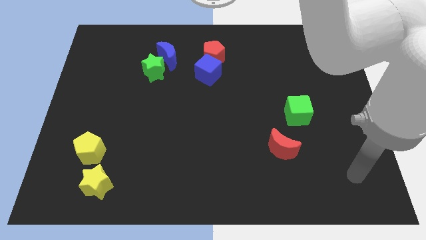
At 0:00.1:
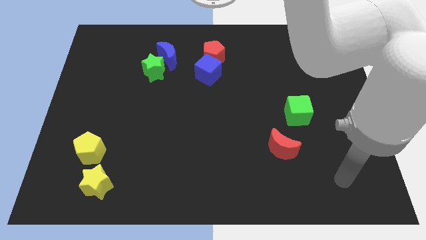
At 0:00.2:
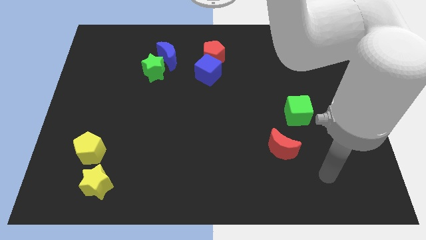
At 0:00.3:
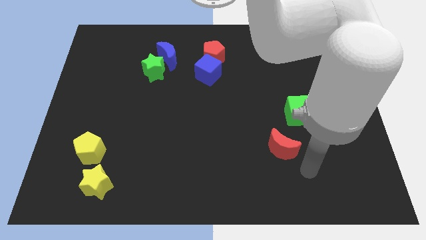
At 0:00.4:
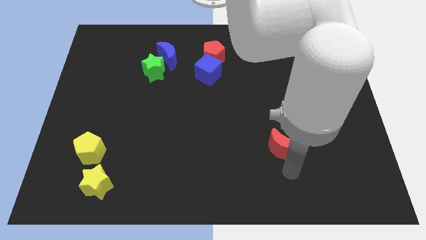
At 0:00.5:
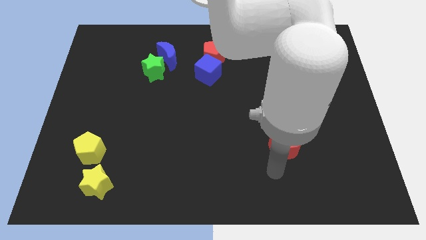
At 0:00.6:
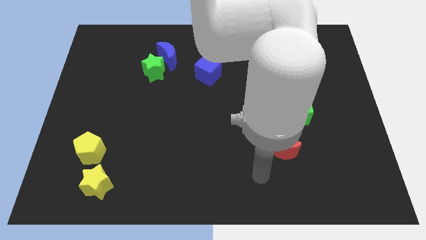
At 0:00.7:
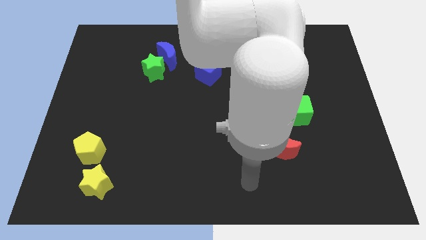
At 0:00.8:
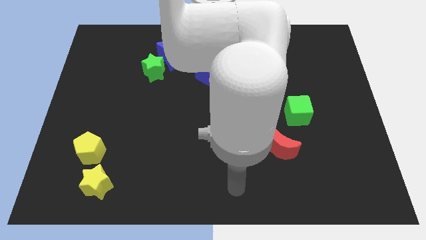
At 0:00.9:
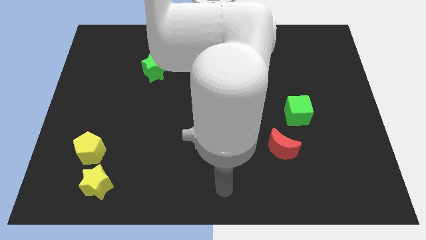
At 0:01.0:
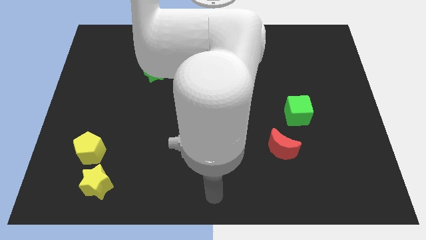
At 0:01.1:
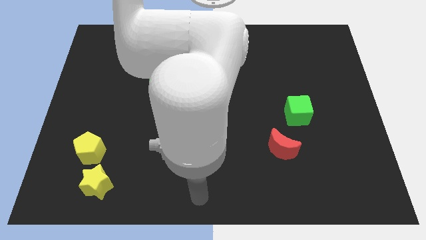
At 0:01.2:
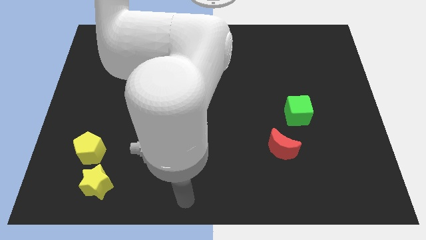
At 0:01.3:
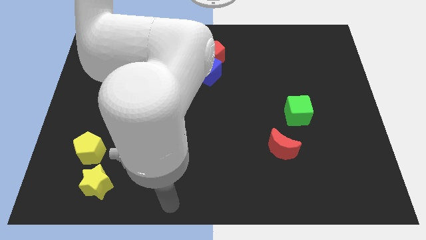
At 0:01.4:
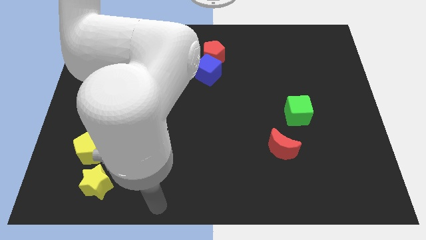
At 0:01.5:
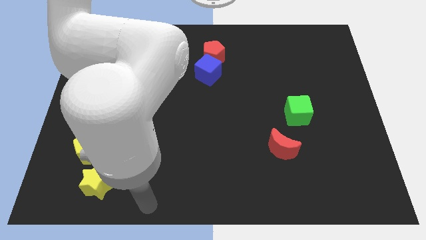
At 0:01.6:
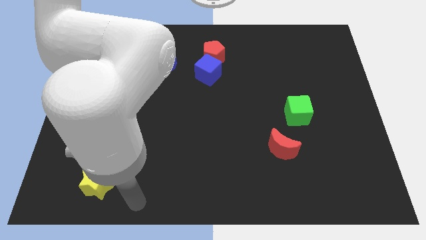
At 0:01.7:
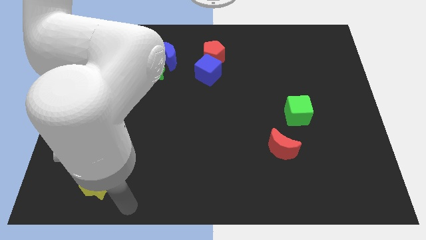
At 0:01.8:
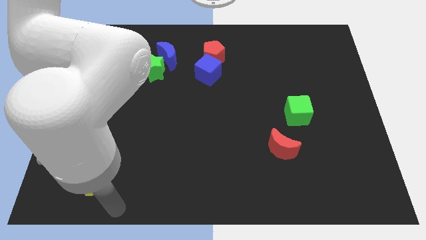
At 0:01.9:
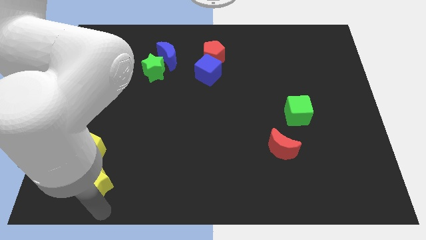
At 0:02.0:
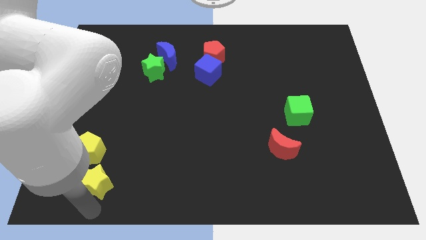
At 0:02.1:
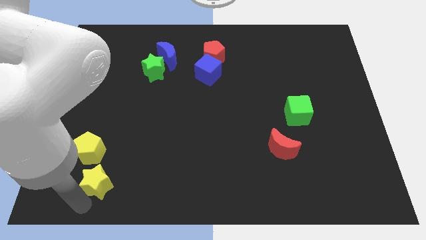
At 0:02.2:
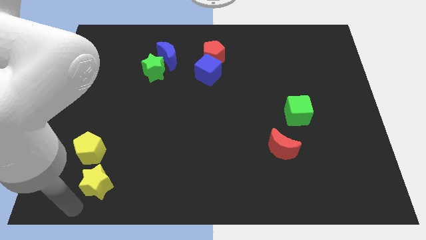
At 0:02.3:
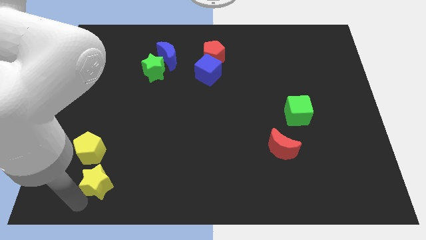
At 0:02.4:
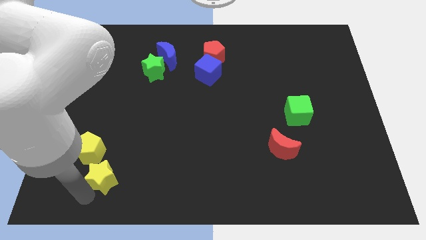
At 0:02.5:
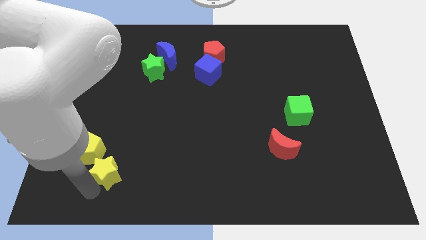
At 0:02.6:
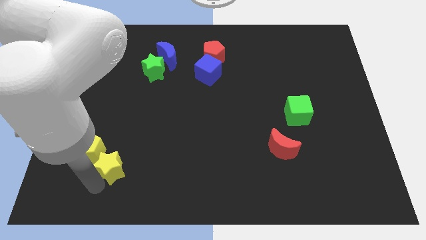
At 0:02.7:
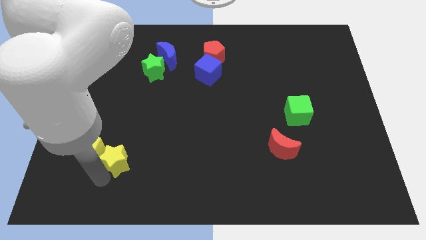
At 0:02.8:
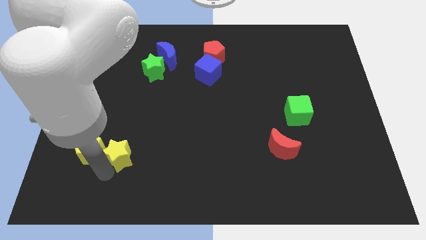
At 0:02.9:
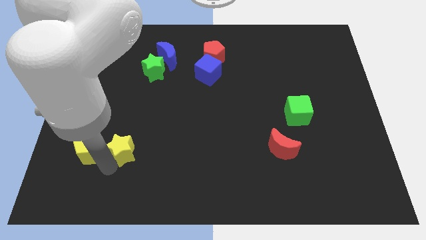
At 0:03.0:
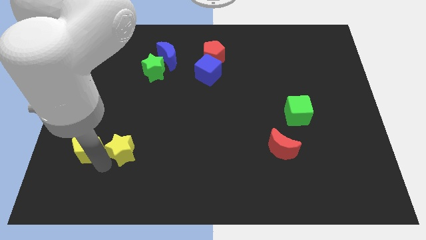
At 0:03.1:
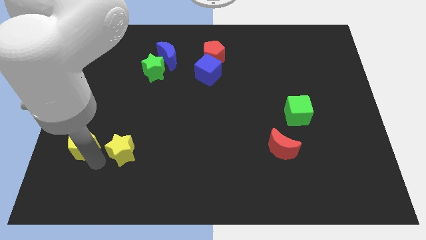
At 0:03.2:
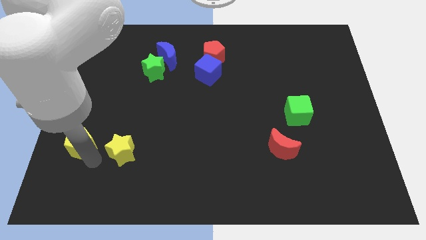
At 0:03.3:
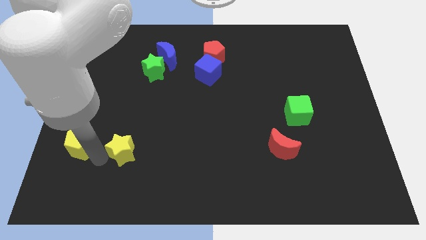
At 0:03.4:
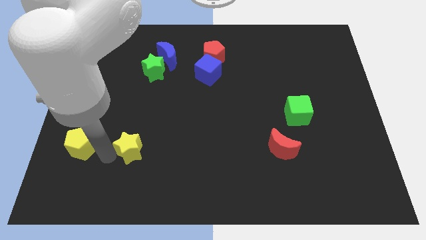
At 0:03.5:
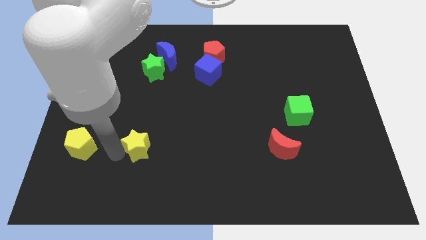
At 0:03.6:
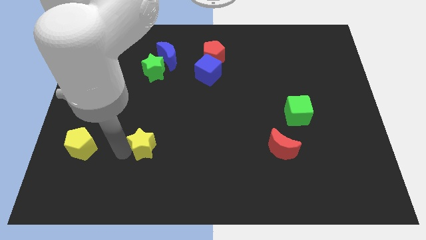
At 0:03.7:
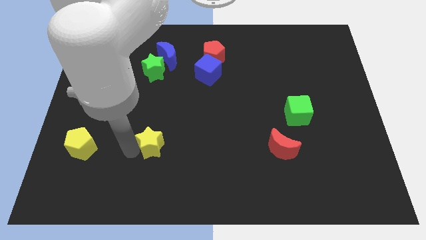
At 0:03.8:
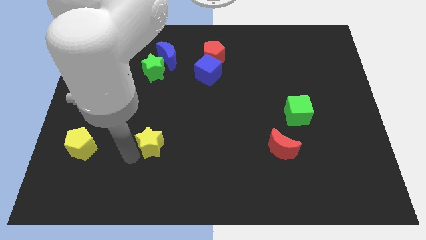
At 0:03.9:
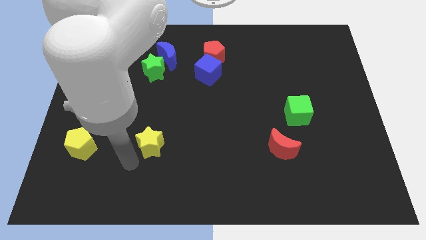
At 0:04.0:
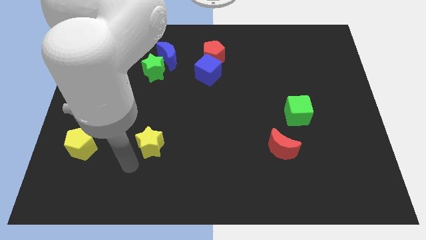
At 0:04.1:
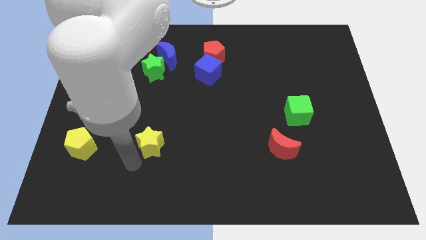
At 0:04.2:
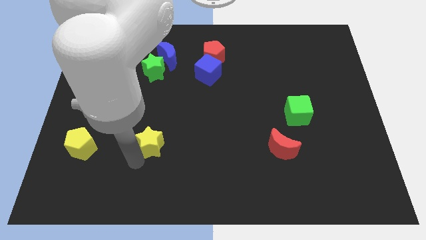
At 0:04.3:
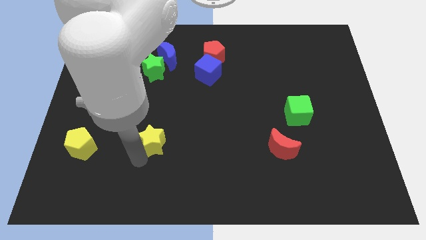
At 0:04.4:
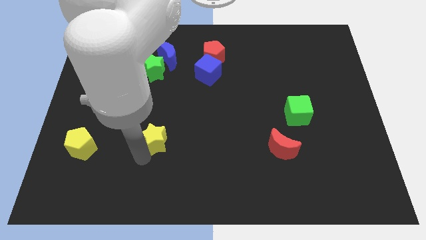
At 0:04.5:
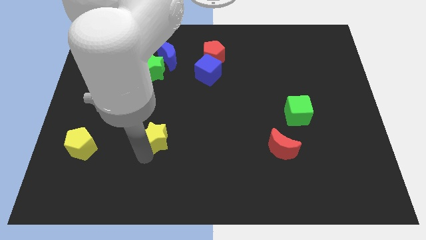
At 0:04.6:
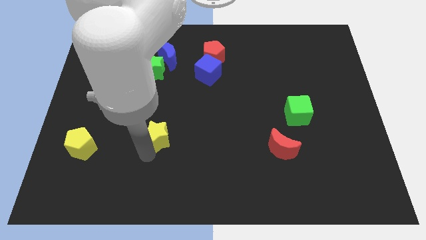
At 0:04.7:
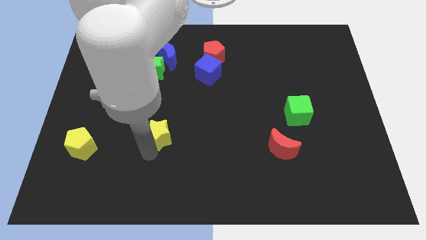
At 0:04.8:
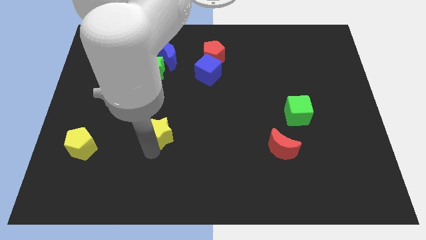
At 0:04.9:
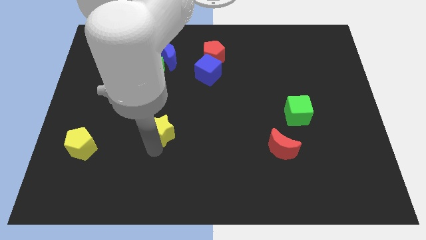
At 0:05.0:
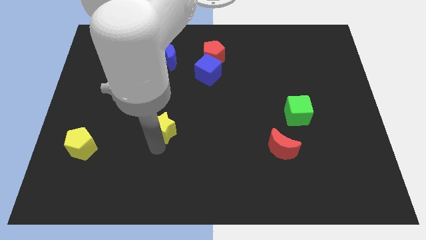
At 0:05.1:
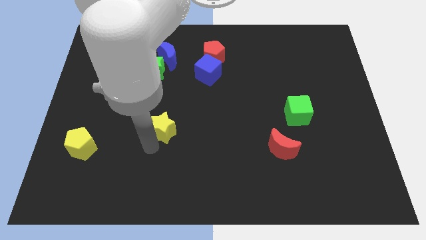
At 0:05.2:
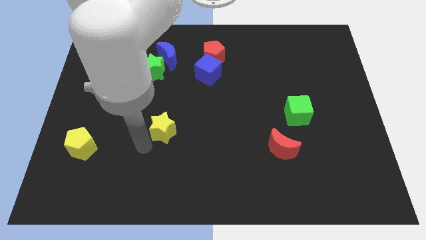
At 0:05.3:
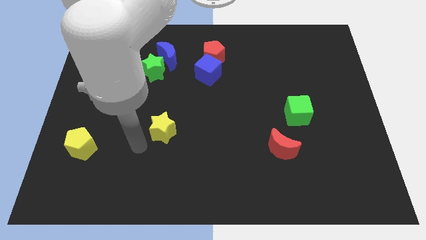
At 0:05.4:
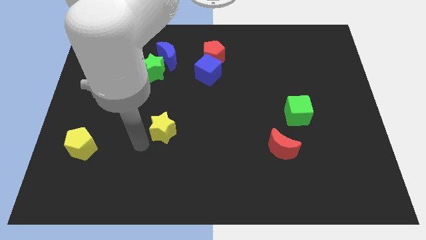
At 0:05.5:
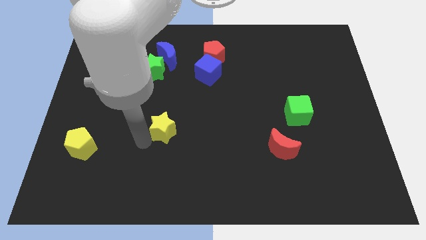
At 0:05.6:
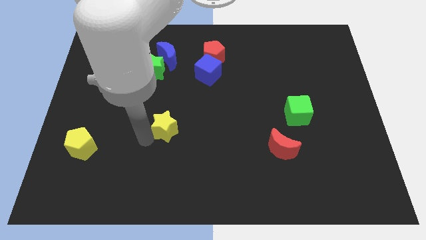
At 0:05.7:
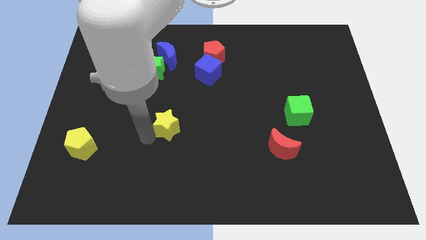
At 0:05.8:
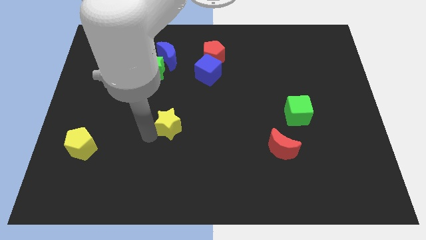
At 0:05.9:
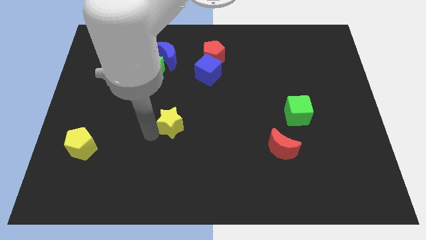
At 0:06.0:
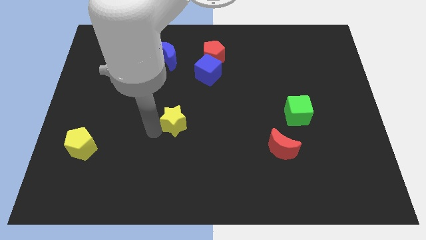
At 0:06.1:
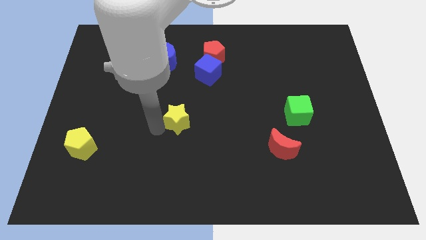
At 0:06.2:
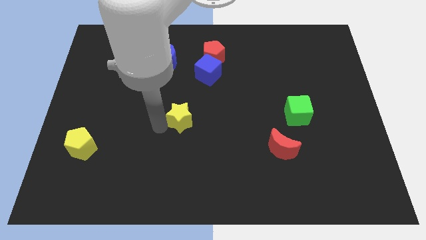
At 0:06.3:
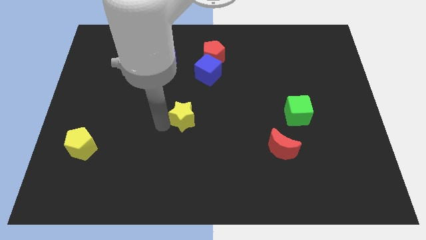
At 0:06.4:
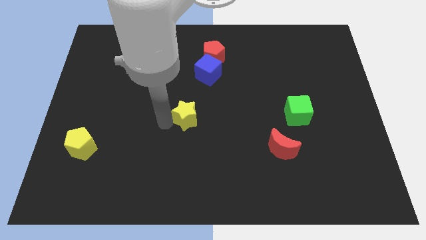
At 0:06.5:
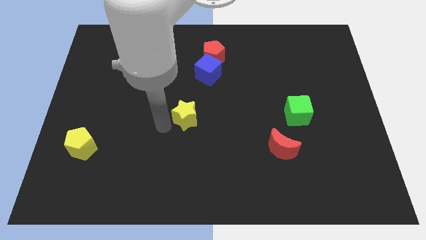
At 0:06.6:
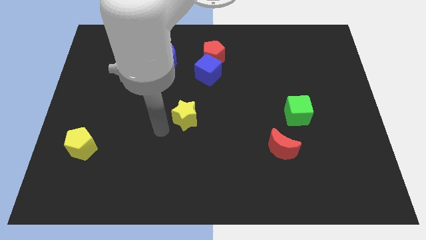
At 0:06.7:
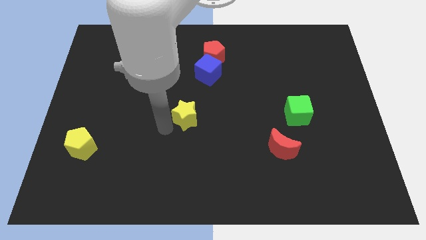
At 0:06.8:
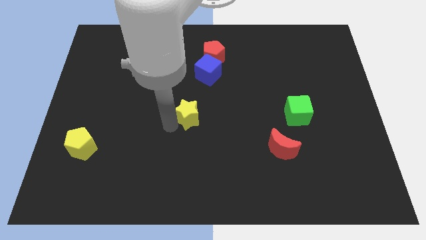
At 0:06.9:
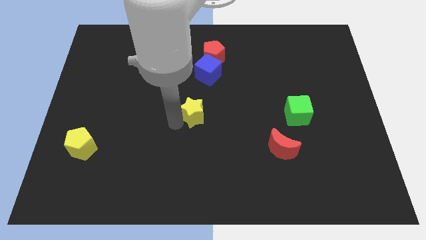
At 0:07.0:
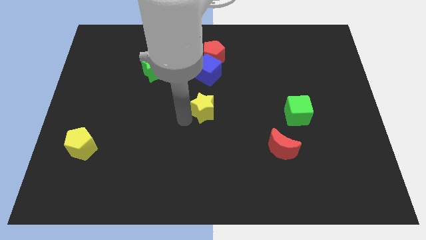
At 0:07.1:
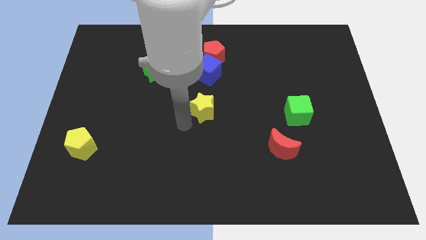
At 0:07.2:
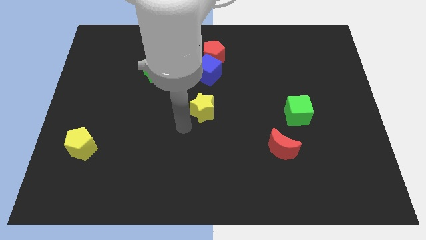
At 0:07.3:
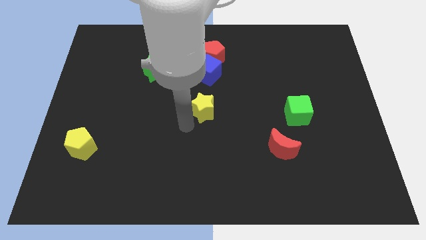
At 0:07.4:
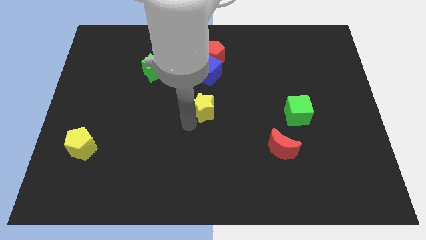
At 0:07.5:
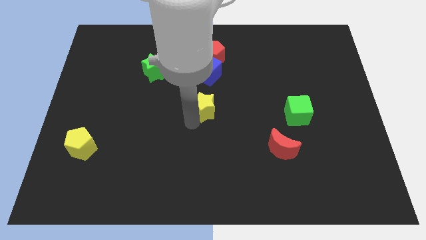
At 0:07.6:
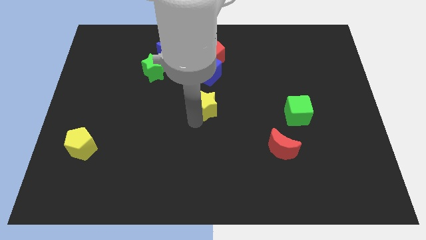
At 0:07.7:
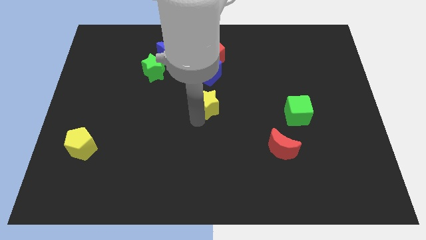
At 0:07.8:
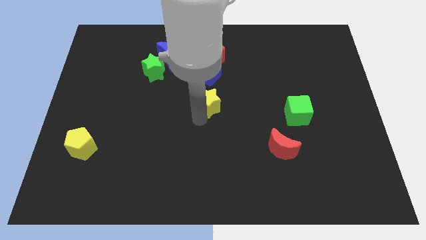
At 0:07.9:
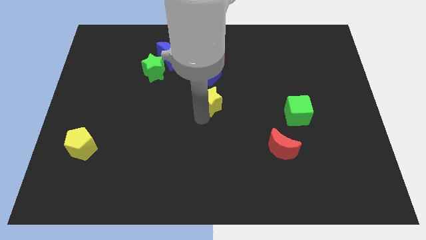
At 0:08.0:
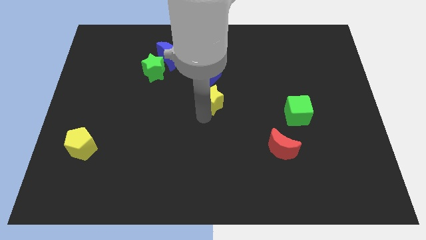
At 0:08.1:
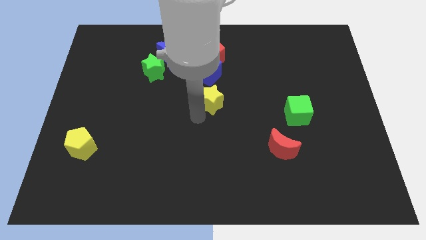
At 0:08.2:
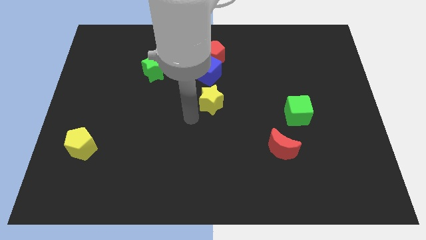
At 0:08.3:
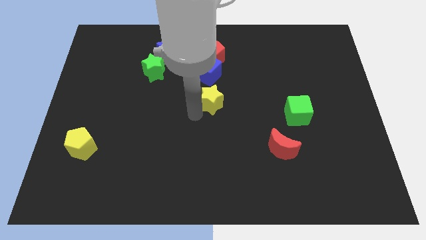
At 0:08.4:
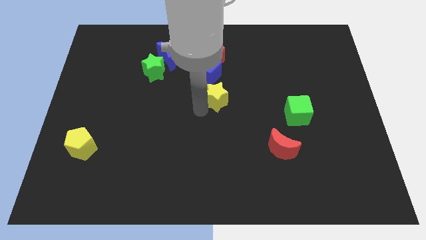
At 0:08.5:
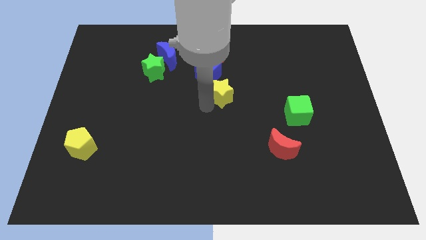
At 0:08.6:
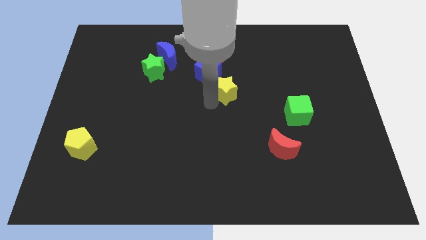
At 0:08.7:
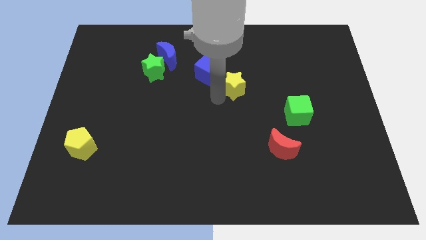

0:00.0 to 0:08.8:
slide the yellow star to the right side of the blue cube
